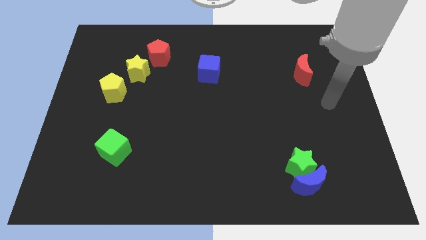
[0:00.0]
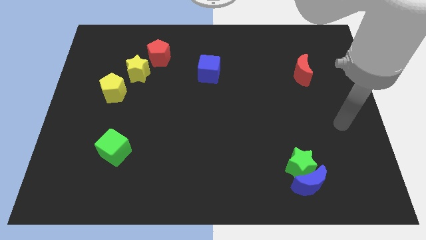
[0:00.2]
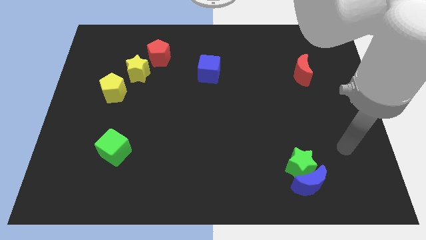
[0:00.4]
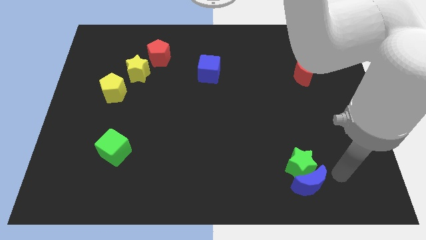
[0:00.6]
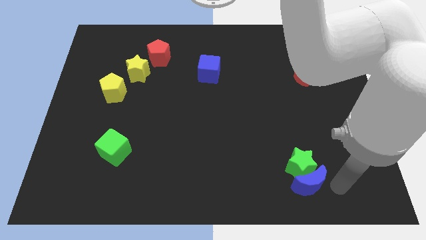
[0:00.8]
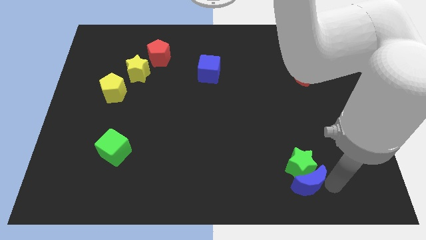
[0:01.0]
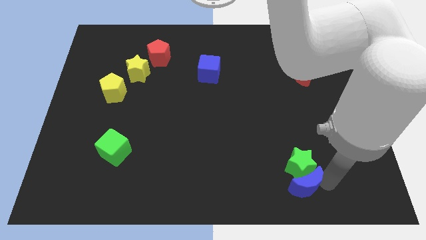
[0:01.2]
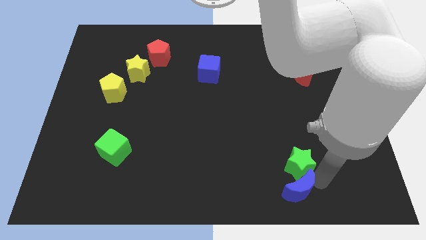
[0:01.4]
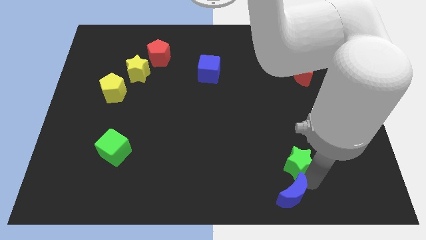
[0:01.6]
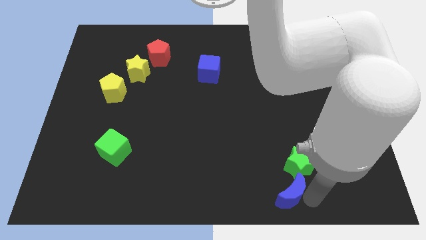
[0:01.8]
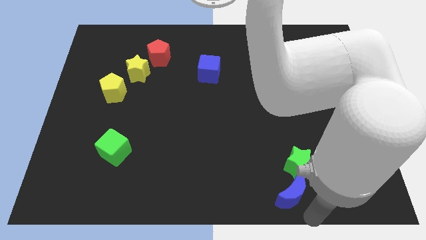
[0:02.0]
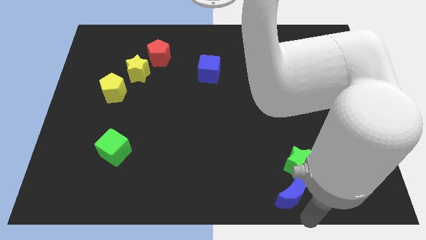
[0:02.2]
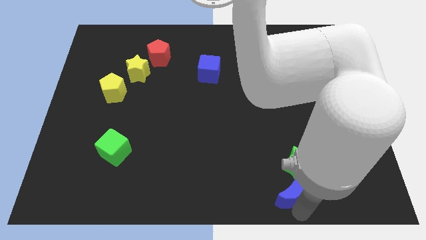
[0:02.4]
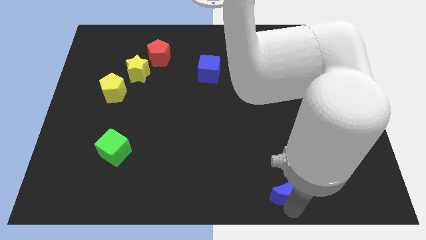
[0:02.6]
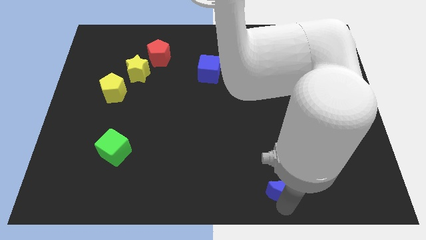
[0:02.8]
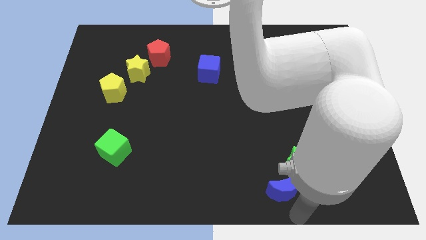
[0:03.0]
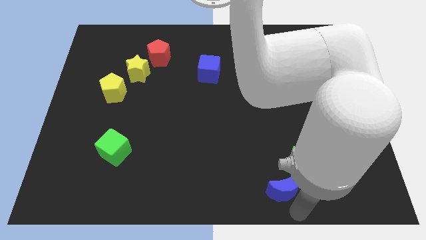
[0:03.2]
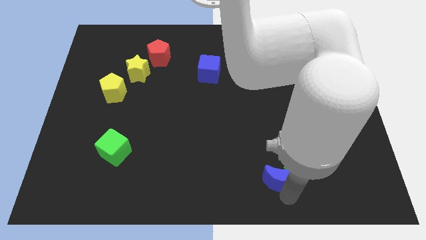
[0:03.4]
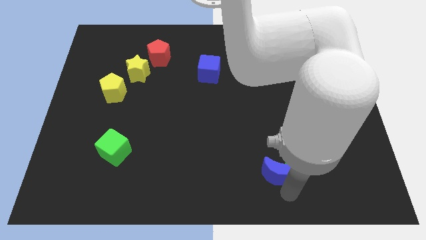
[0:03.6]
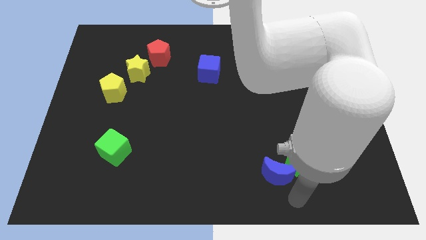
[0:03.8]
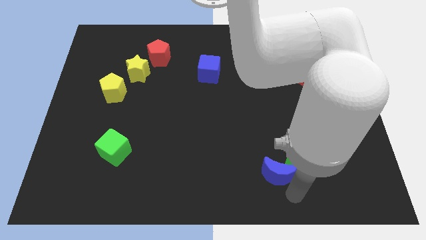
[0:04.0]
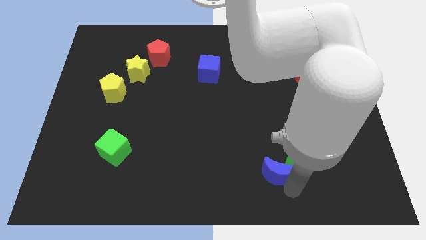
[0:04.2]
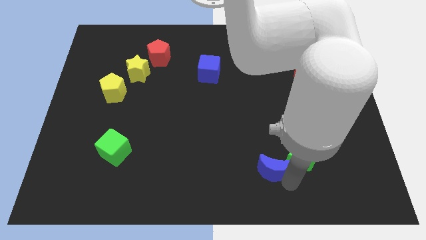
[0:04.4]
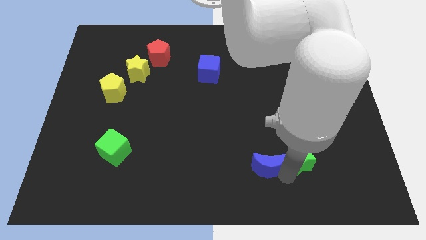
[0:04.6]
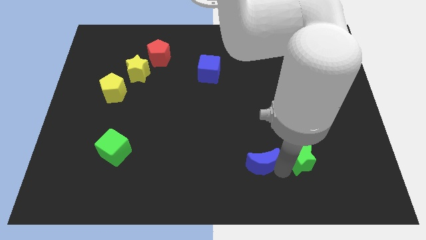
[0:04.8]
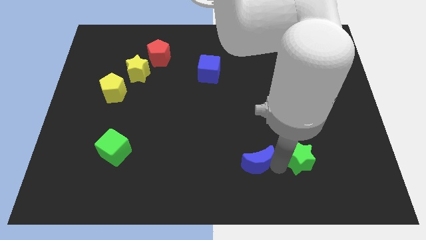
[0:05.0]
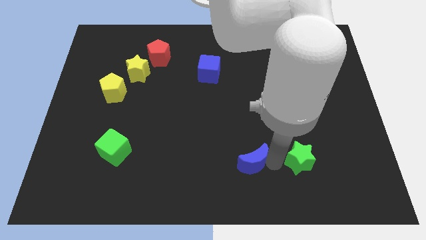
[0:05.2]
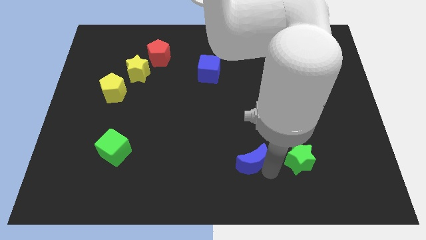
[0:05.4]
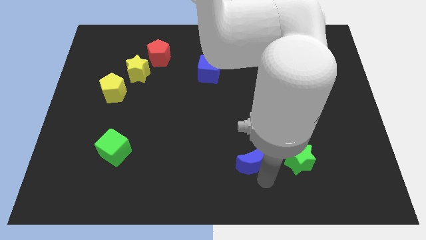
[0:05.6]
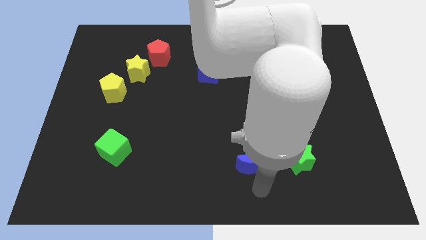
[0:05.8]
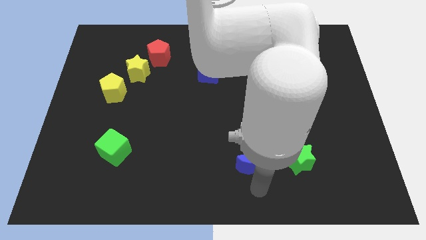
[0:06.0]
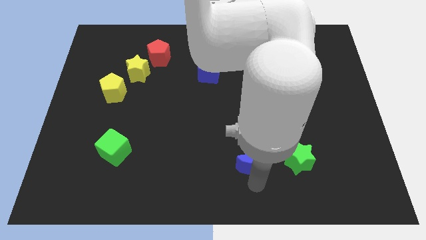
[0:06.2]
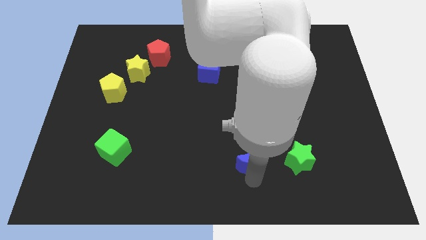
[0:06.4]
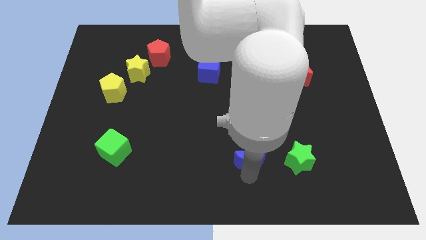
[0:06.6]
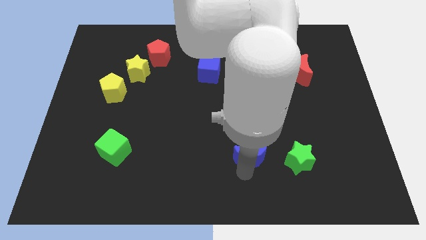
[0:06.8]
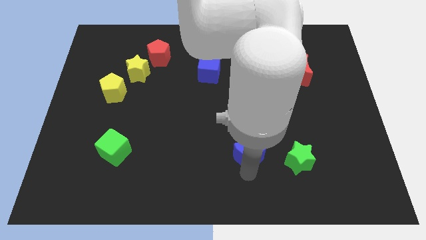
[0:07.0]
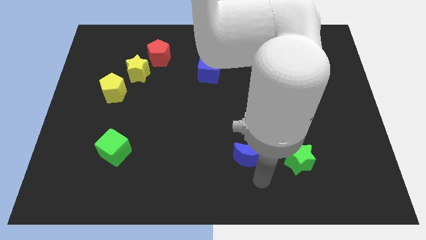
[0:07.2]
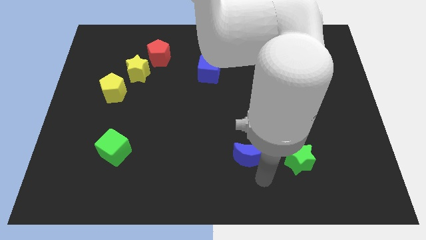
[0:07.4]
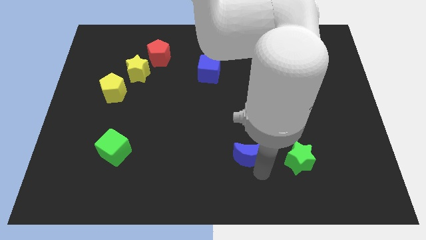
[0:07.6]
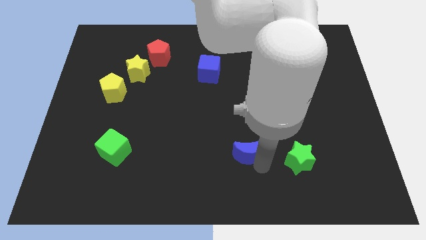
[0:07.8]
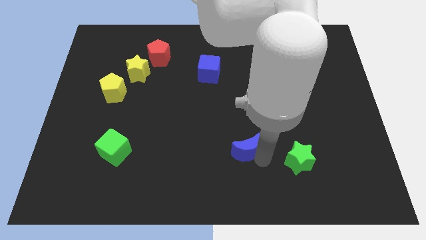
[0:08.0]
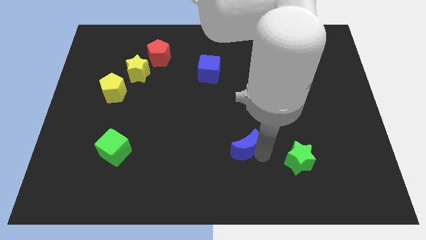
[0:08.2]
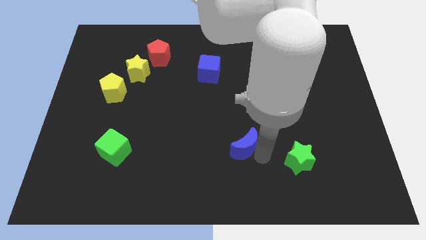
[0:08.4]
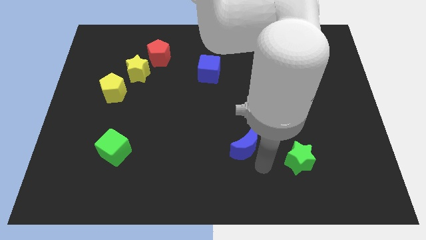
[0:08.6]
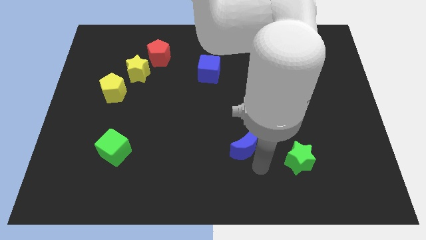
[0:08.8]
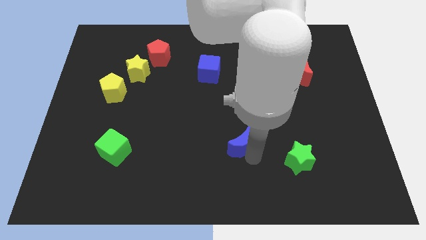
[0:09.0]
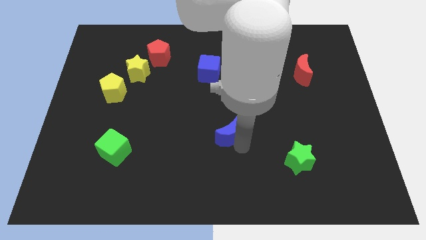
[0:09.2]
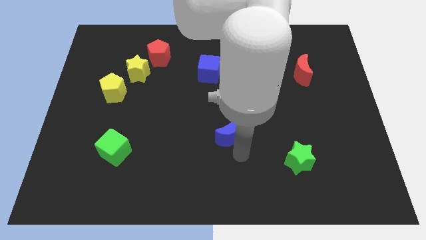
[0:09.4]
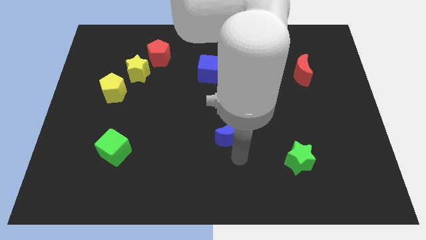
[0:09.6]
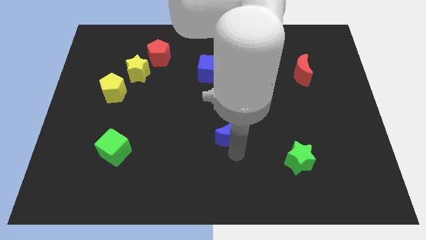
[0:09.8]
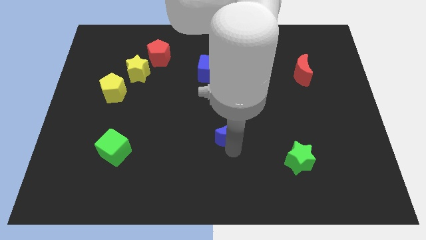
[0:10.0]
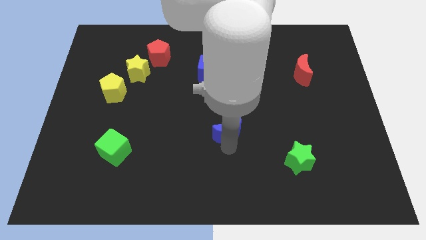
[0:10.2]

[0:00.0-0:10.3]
move the blue moon diagonally upwards and left

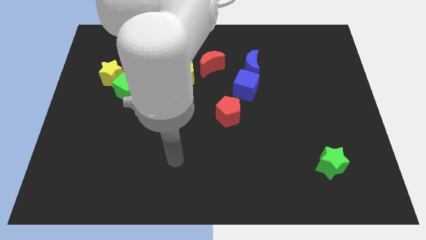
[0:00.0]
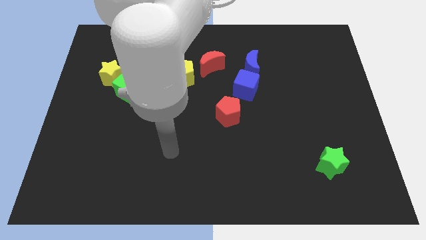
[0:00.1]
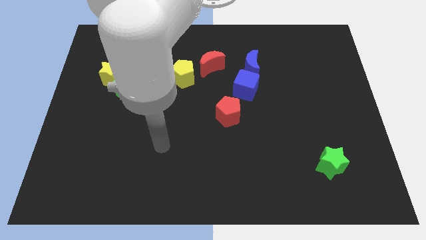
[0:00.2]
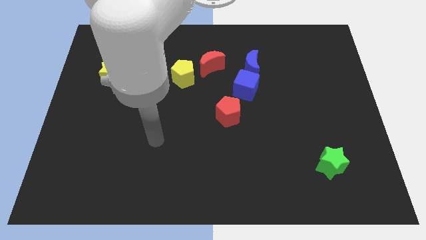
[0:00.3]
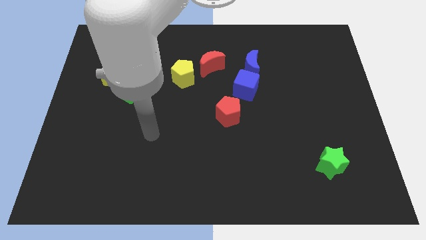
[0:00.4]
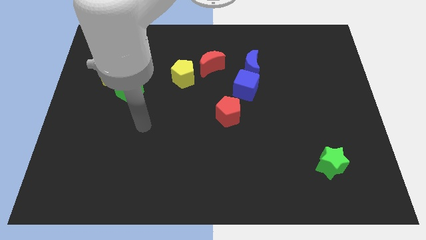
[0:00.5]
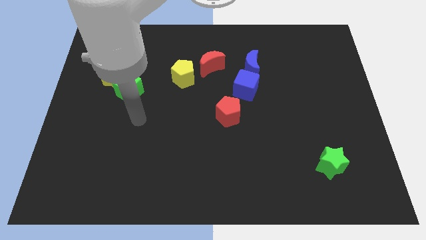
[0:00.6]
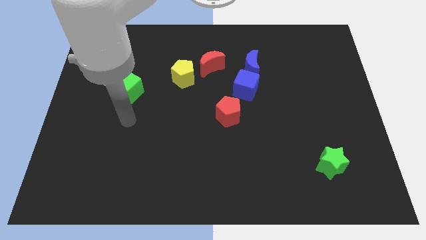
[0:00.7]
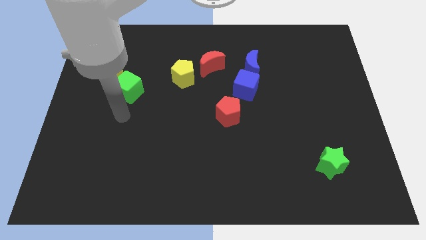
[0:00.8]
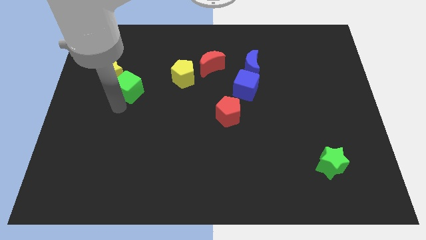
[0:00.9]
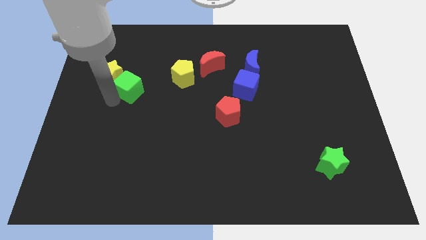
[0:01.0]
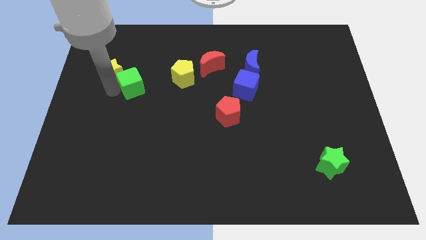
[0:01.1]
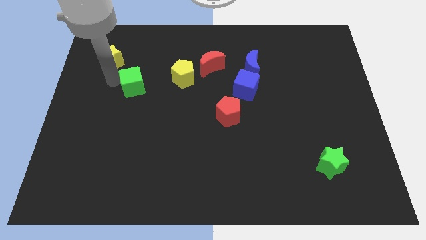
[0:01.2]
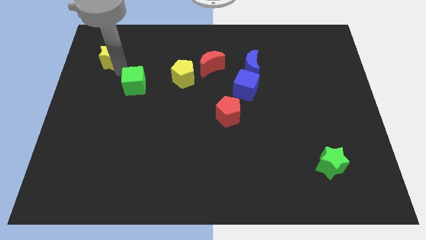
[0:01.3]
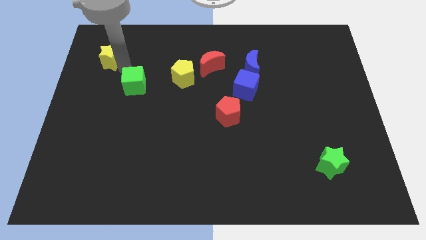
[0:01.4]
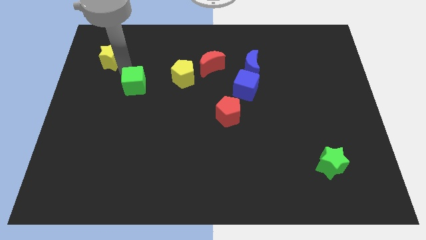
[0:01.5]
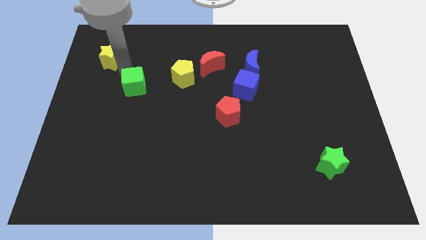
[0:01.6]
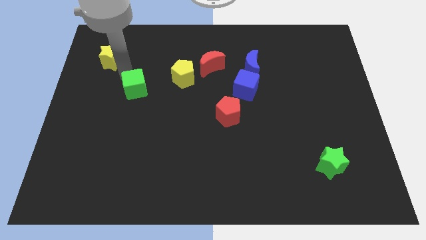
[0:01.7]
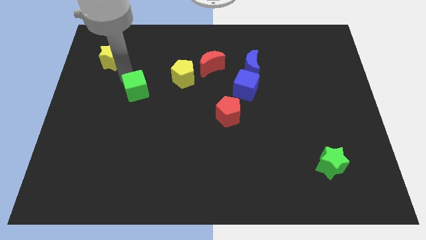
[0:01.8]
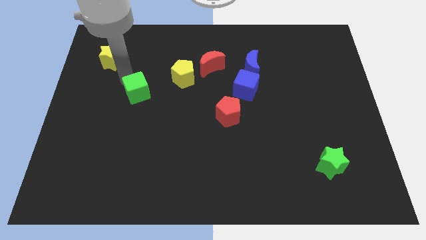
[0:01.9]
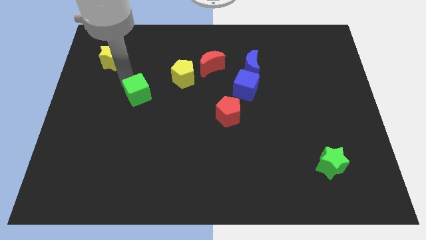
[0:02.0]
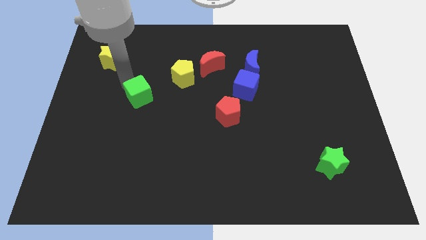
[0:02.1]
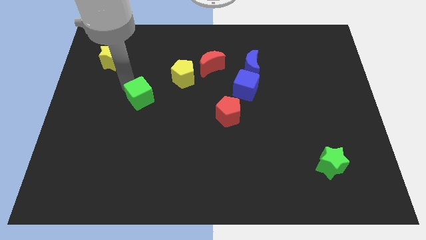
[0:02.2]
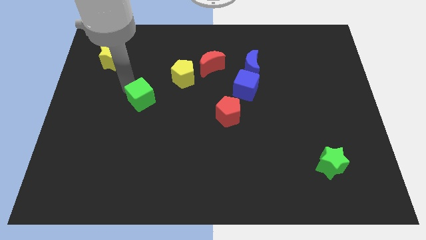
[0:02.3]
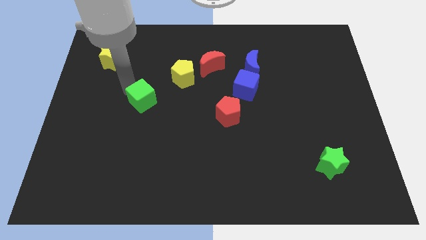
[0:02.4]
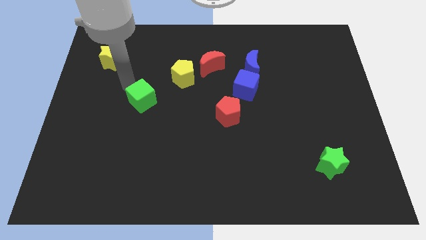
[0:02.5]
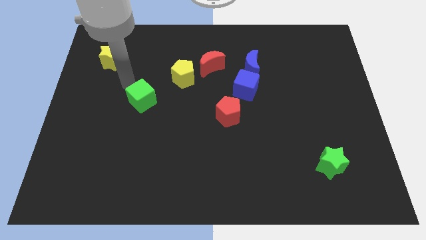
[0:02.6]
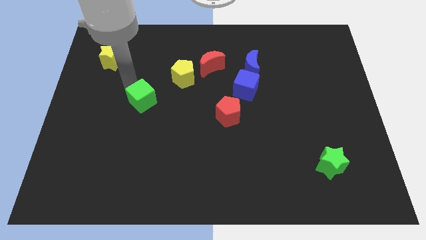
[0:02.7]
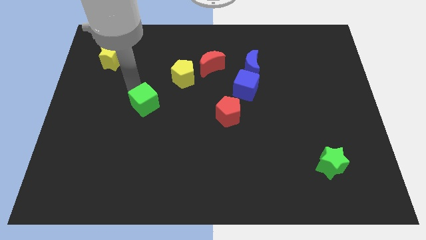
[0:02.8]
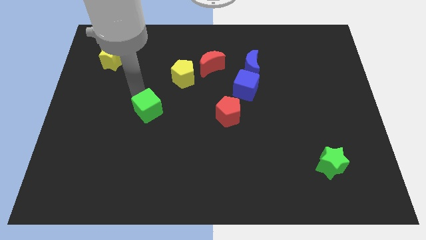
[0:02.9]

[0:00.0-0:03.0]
slide the green cube diagonally down and to the right slightly
